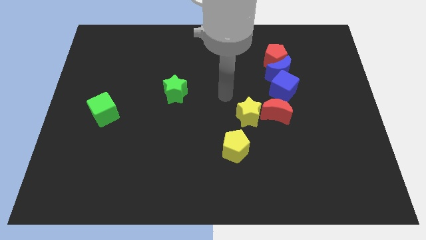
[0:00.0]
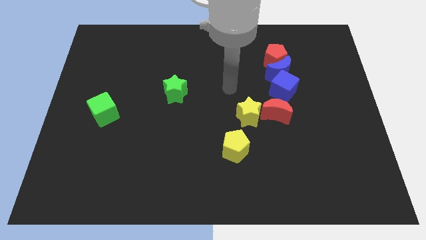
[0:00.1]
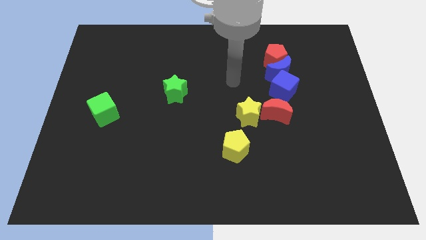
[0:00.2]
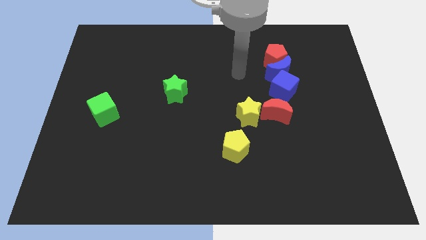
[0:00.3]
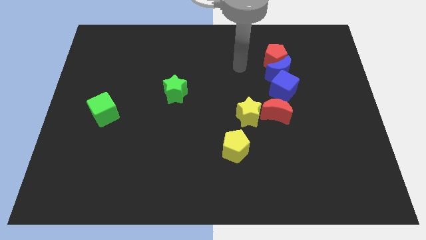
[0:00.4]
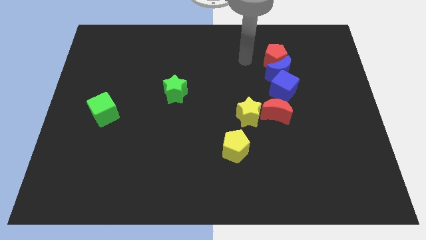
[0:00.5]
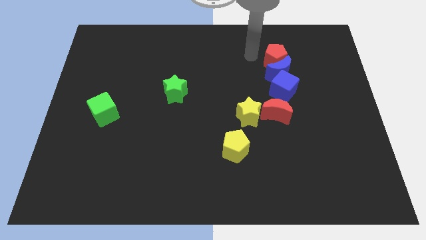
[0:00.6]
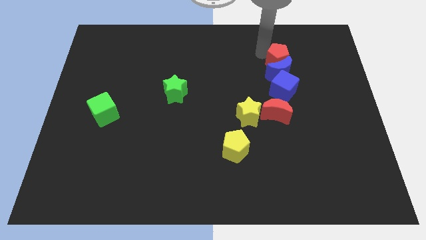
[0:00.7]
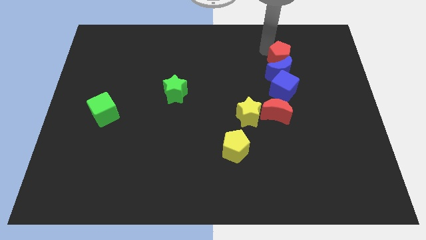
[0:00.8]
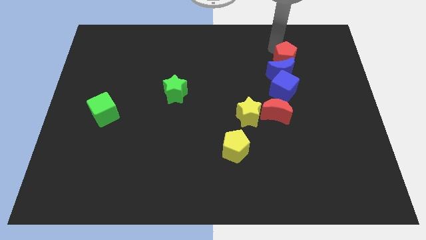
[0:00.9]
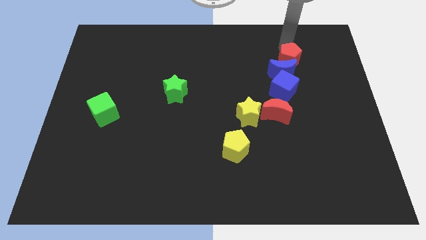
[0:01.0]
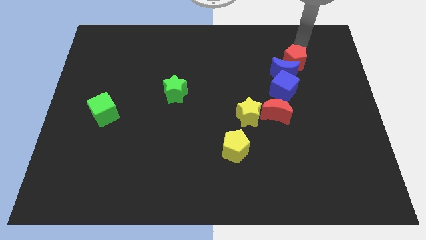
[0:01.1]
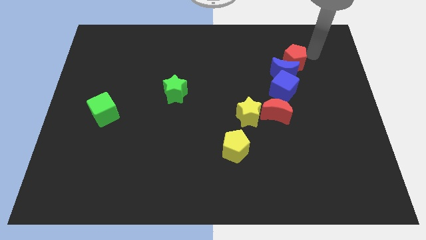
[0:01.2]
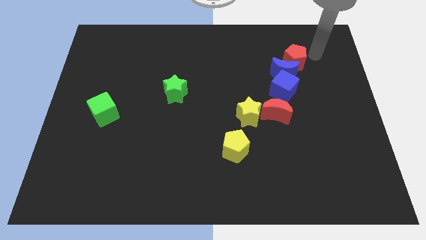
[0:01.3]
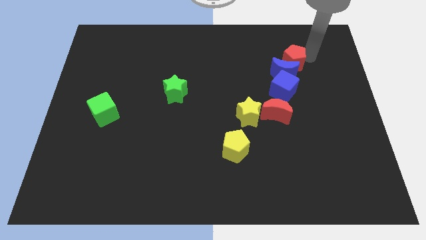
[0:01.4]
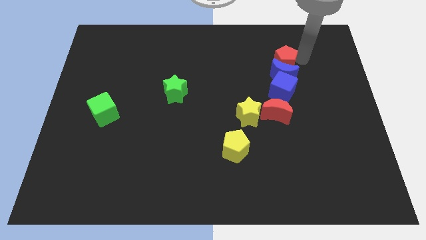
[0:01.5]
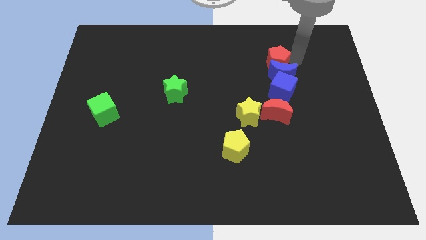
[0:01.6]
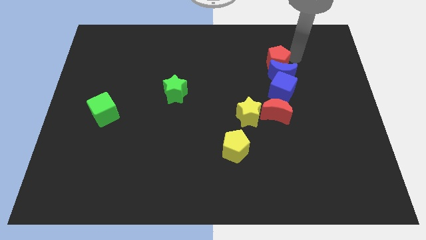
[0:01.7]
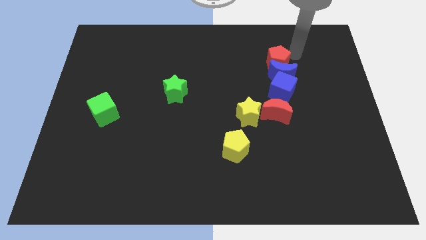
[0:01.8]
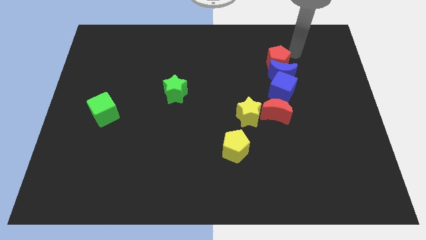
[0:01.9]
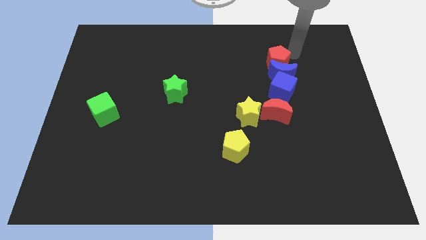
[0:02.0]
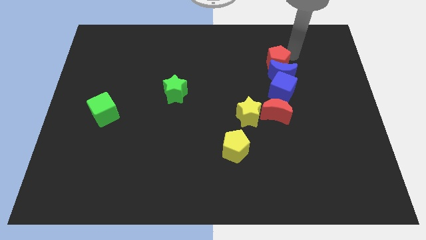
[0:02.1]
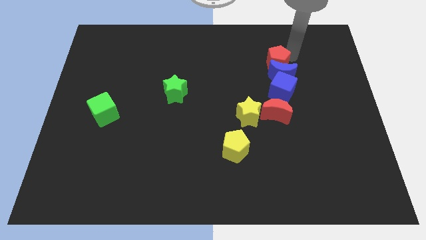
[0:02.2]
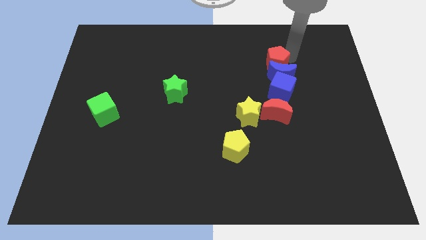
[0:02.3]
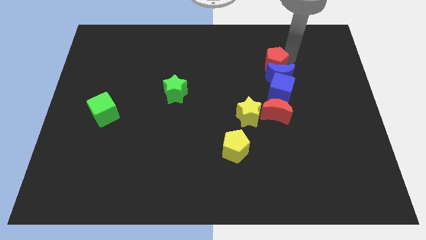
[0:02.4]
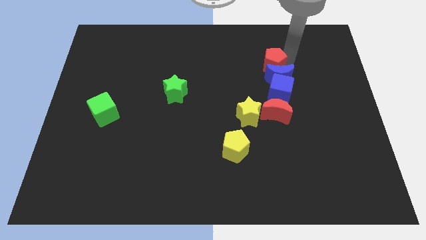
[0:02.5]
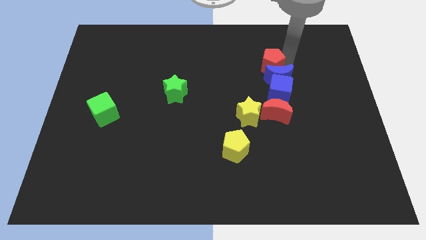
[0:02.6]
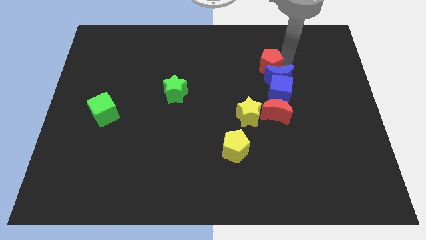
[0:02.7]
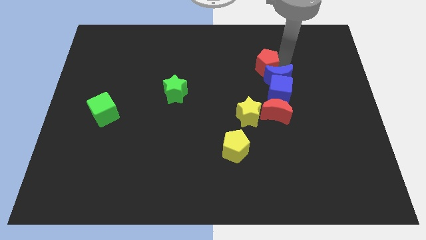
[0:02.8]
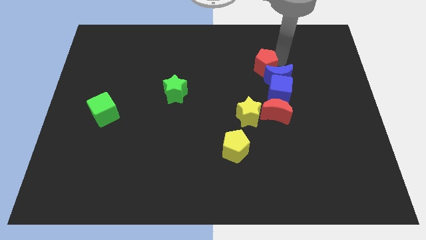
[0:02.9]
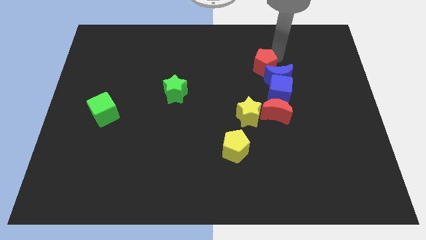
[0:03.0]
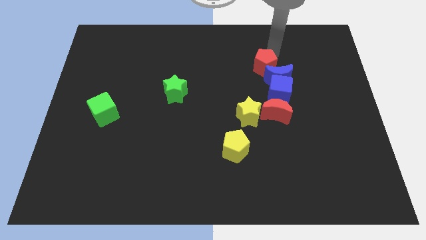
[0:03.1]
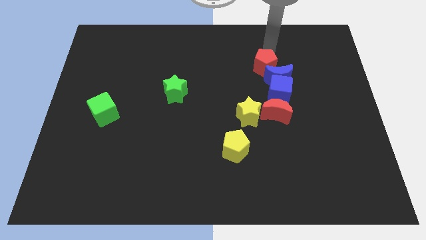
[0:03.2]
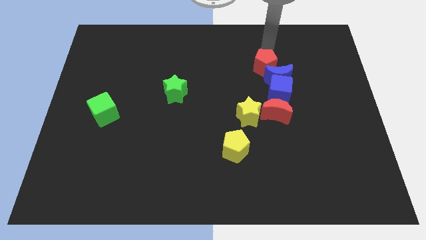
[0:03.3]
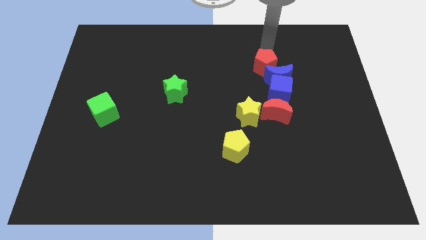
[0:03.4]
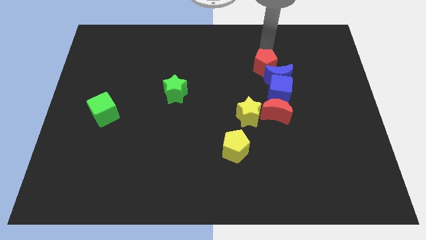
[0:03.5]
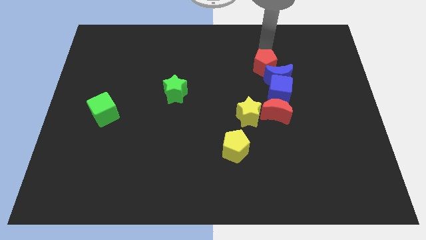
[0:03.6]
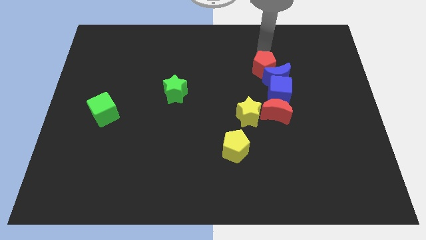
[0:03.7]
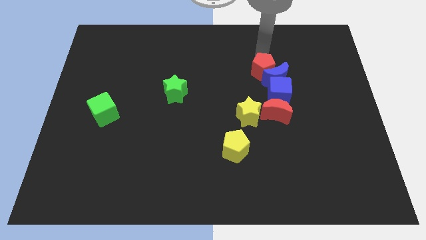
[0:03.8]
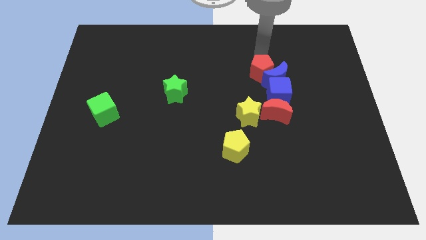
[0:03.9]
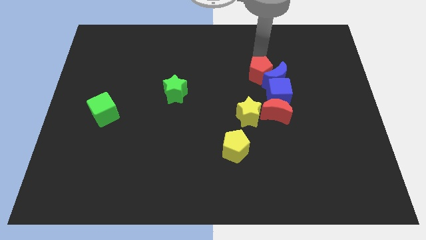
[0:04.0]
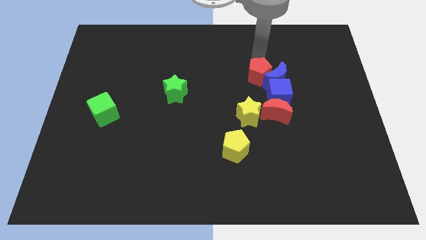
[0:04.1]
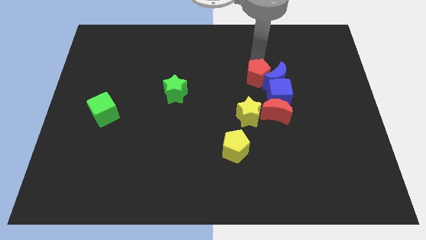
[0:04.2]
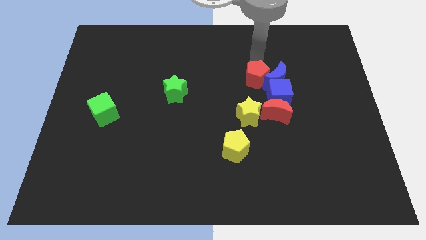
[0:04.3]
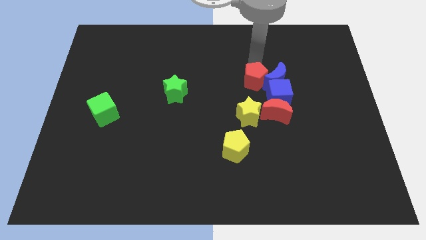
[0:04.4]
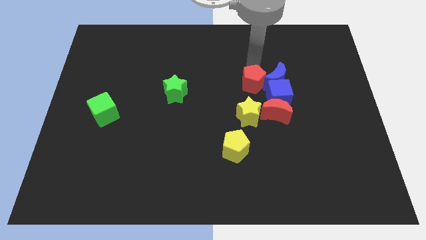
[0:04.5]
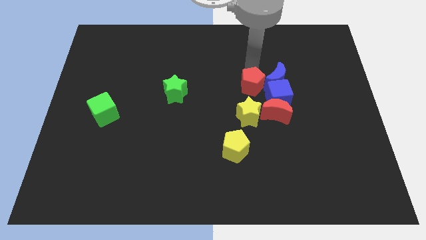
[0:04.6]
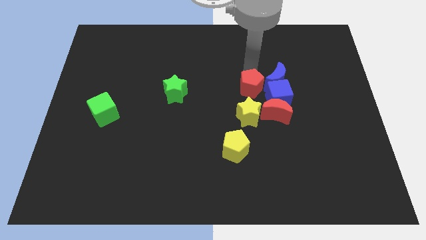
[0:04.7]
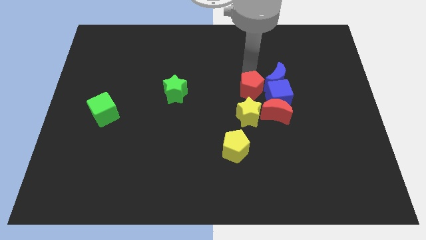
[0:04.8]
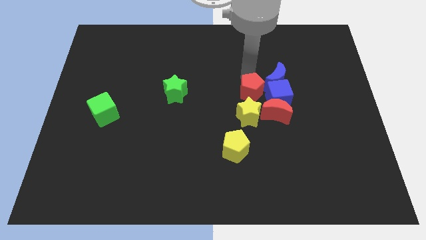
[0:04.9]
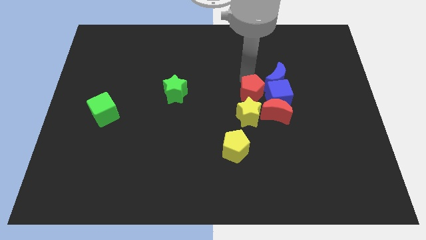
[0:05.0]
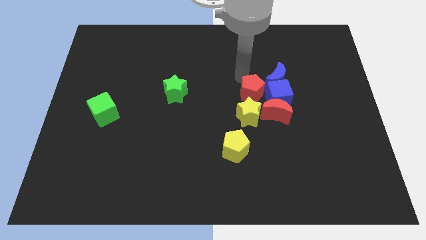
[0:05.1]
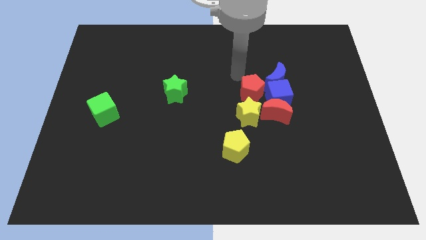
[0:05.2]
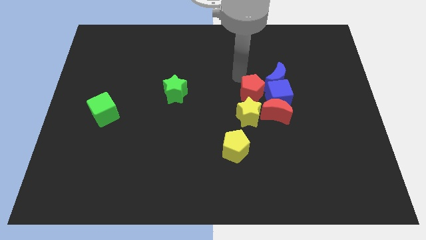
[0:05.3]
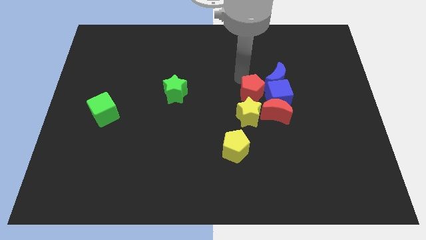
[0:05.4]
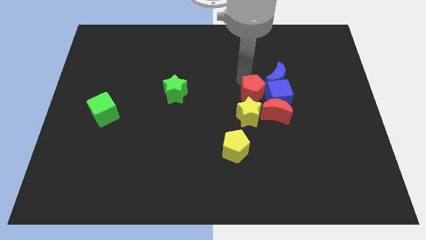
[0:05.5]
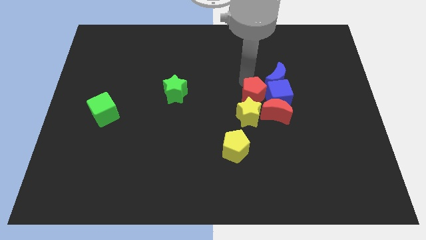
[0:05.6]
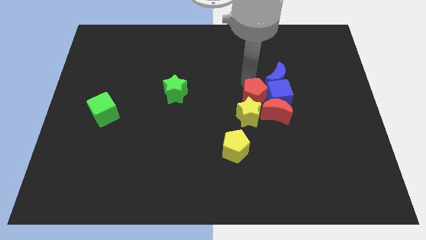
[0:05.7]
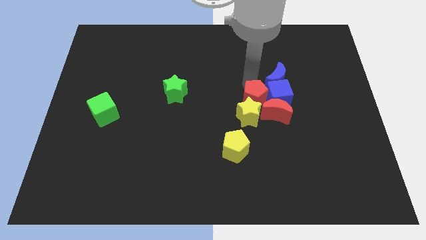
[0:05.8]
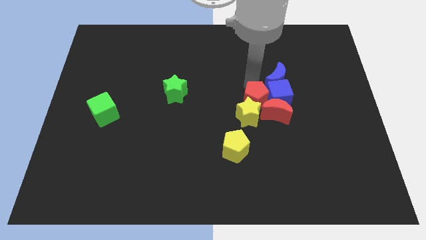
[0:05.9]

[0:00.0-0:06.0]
put the red pentagon to the red moon

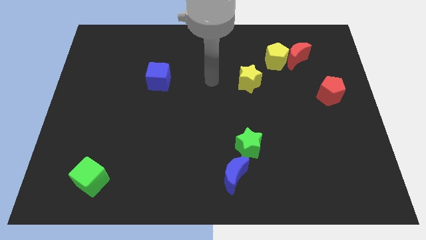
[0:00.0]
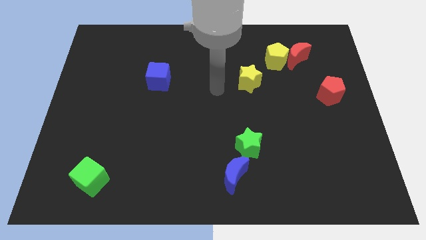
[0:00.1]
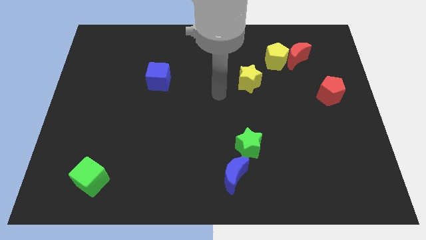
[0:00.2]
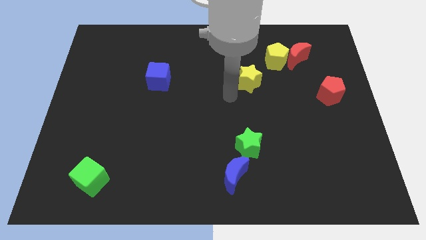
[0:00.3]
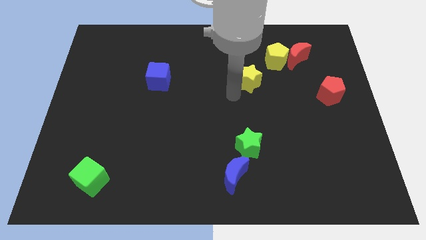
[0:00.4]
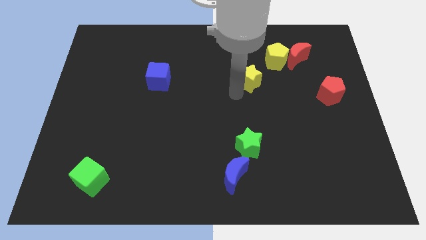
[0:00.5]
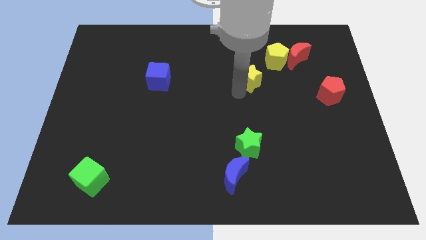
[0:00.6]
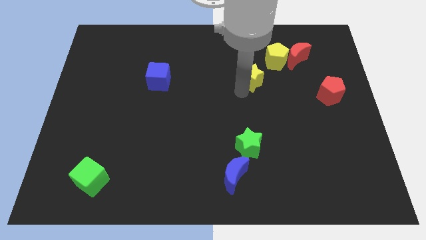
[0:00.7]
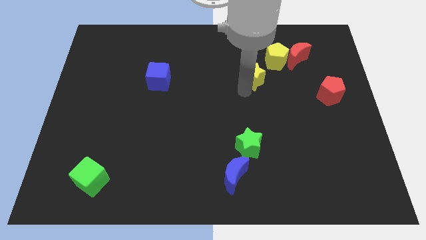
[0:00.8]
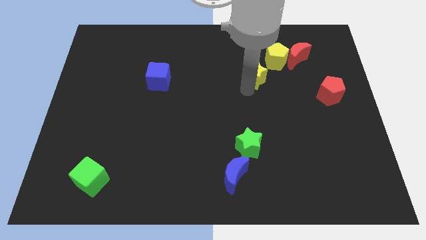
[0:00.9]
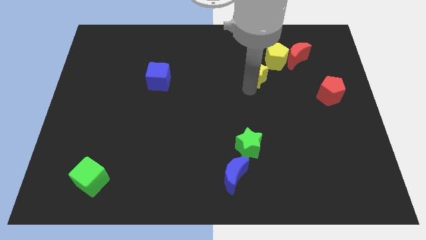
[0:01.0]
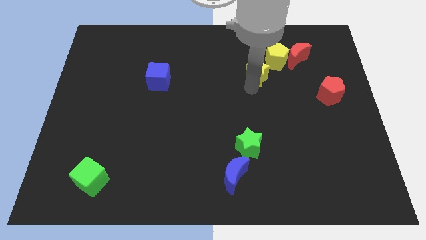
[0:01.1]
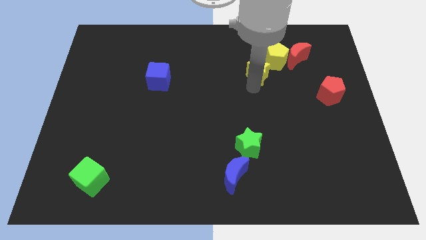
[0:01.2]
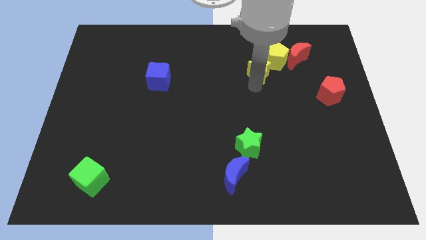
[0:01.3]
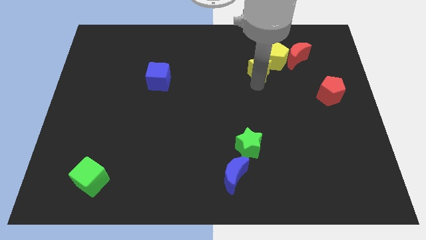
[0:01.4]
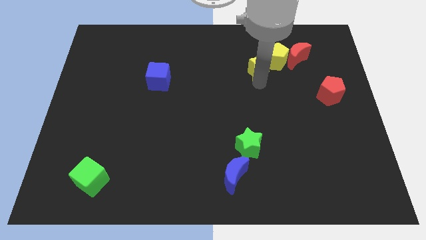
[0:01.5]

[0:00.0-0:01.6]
put the yellow star to the yellow pentagon
